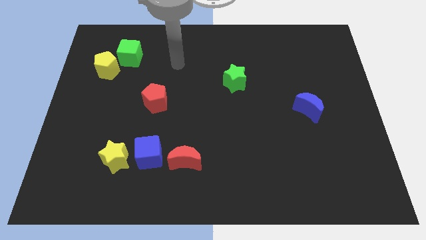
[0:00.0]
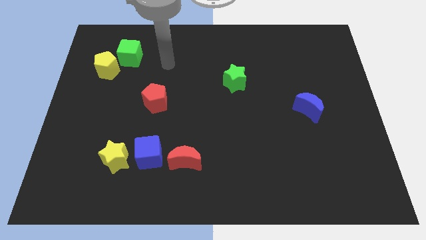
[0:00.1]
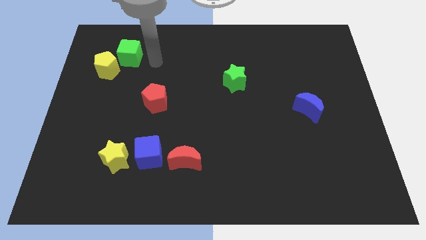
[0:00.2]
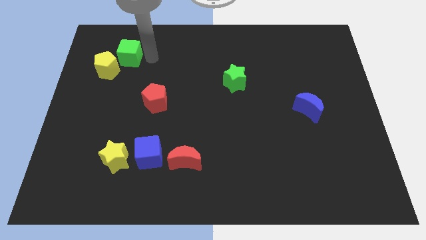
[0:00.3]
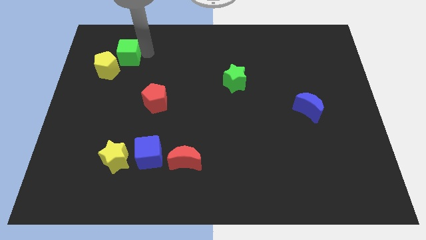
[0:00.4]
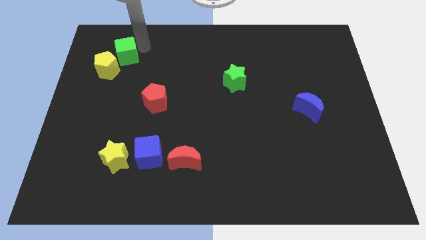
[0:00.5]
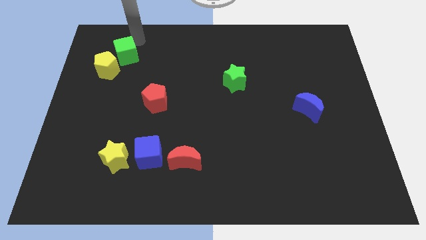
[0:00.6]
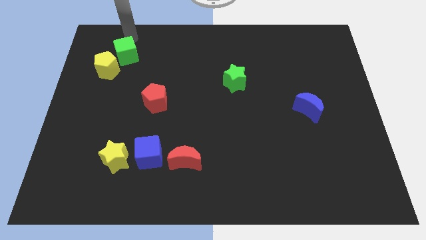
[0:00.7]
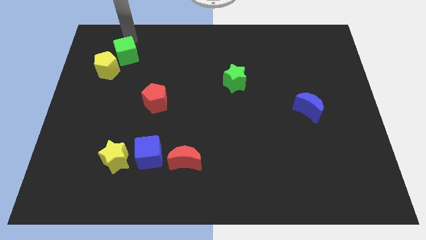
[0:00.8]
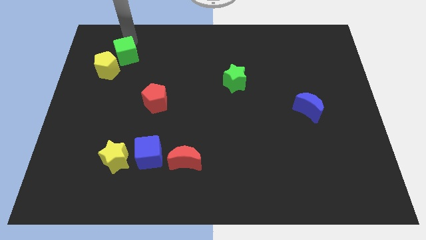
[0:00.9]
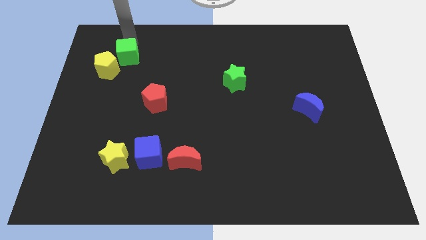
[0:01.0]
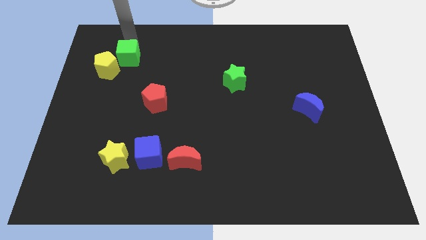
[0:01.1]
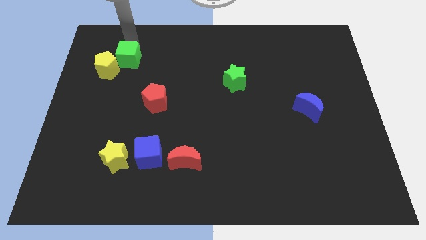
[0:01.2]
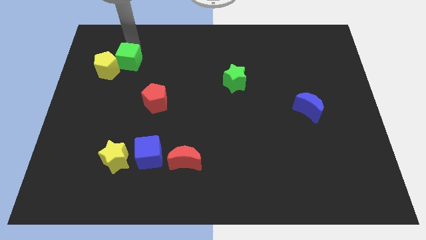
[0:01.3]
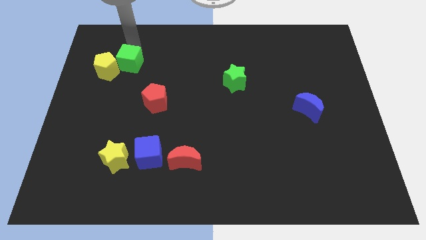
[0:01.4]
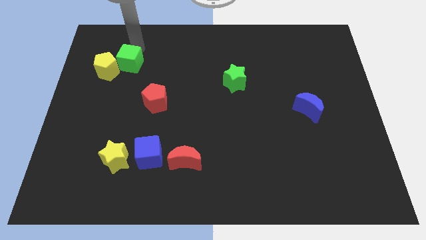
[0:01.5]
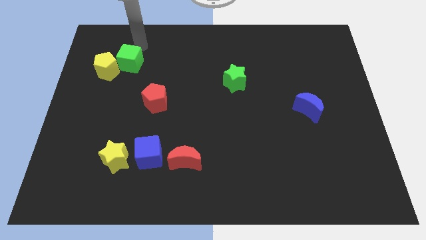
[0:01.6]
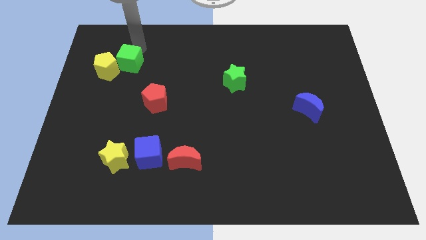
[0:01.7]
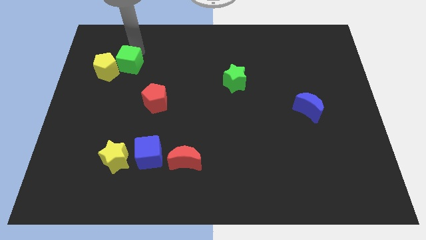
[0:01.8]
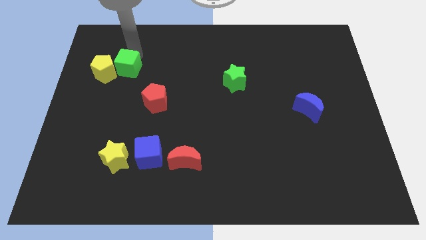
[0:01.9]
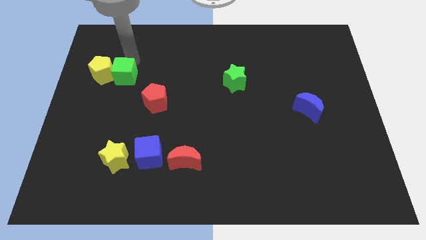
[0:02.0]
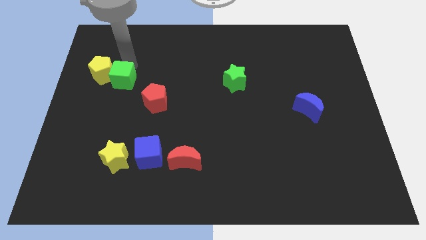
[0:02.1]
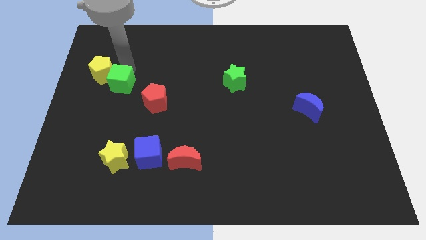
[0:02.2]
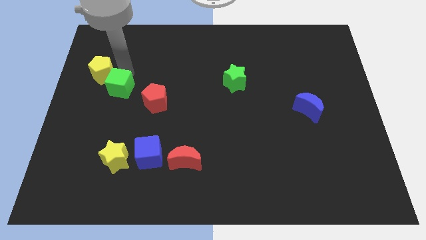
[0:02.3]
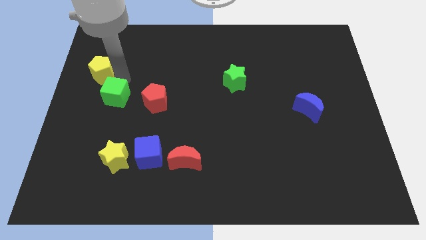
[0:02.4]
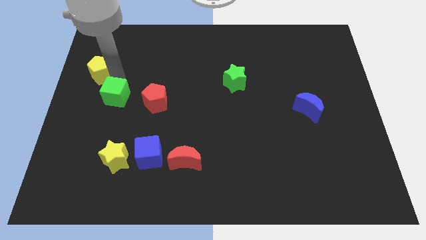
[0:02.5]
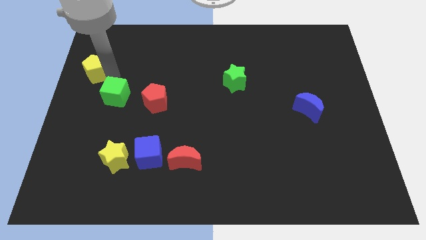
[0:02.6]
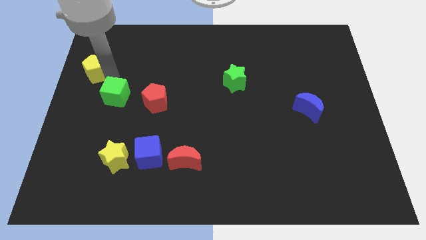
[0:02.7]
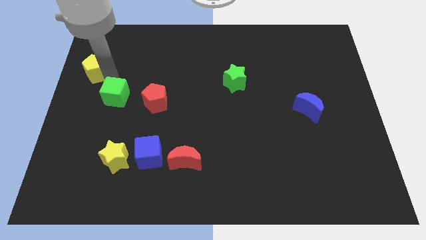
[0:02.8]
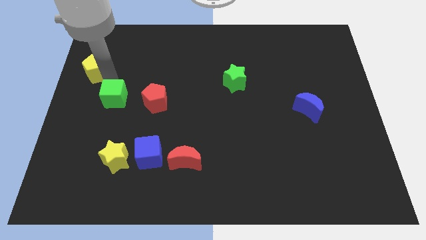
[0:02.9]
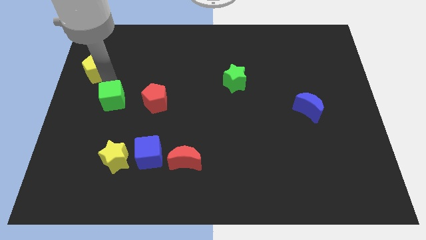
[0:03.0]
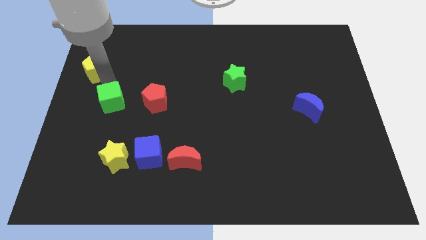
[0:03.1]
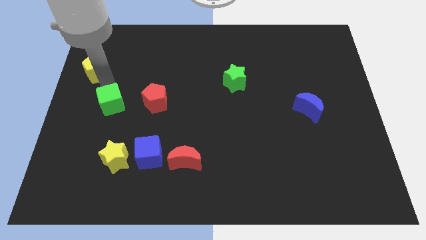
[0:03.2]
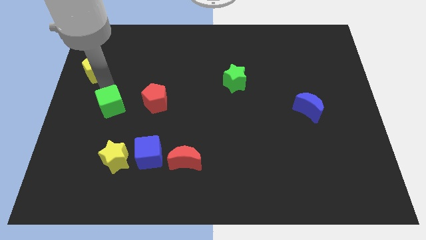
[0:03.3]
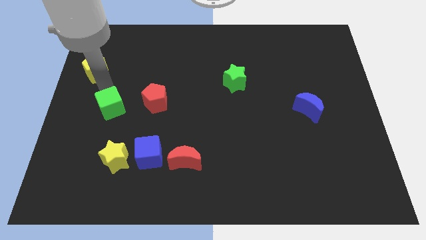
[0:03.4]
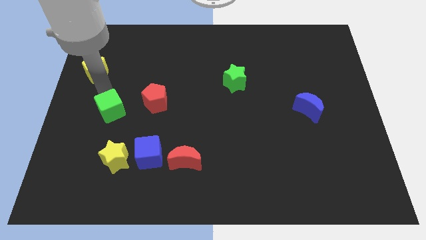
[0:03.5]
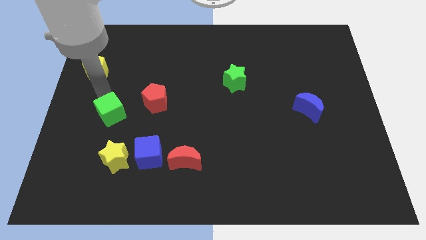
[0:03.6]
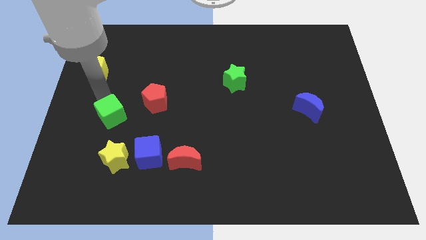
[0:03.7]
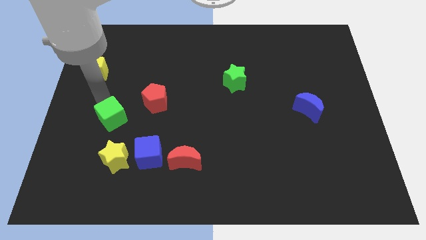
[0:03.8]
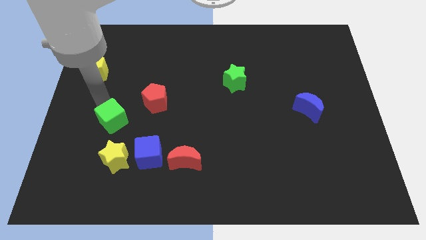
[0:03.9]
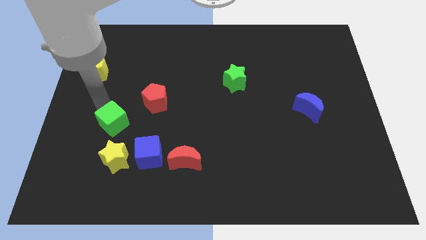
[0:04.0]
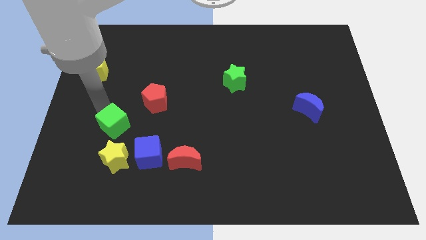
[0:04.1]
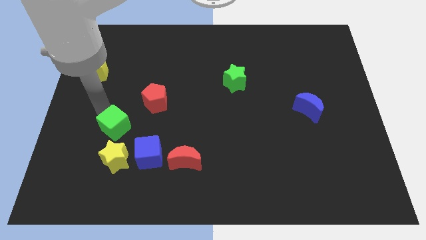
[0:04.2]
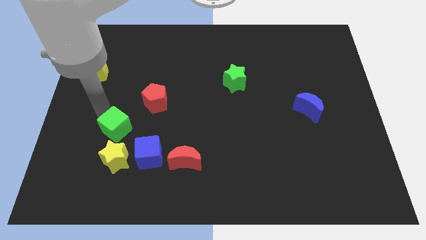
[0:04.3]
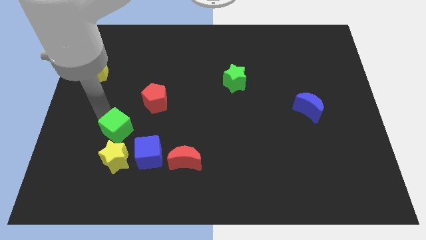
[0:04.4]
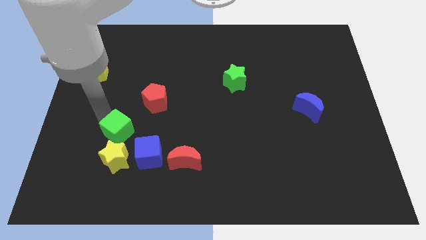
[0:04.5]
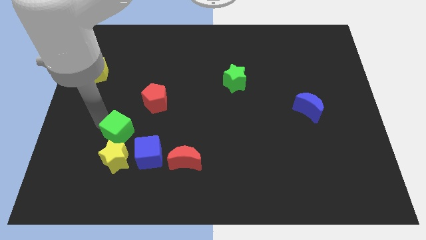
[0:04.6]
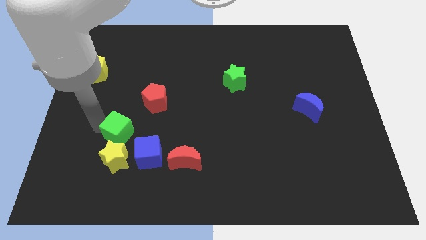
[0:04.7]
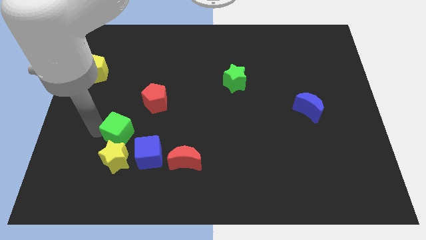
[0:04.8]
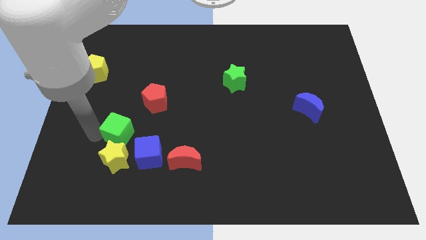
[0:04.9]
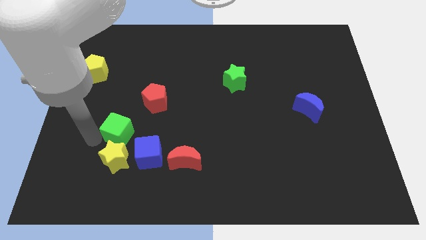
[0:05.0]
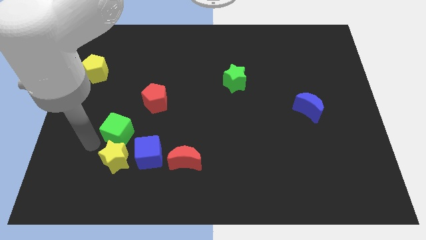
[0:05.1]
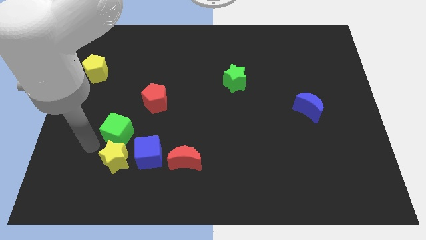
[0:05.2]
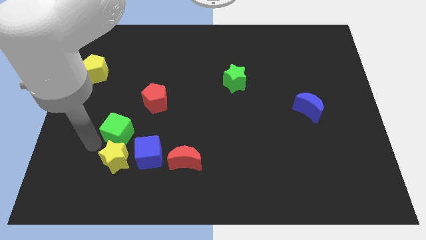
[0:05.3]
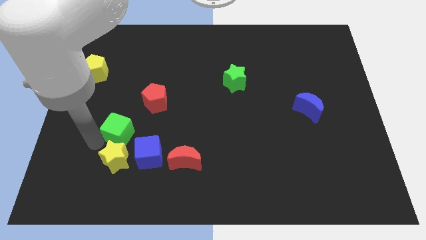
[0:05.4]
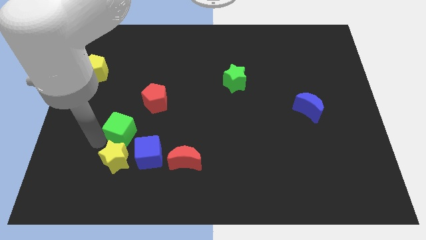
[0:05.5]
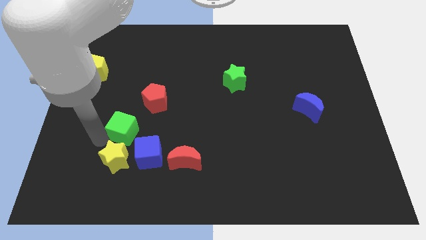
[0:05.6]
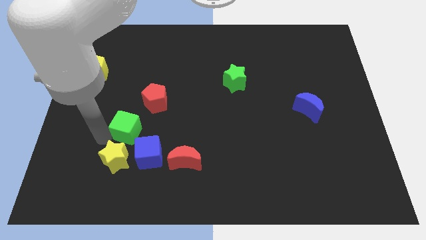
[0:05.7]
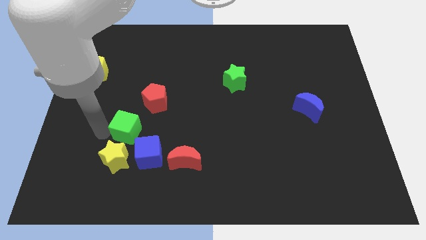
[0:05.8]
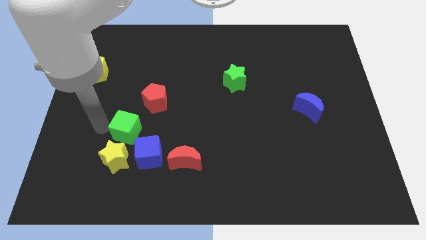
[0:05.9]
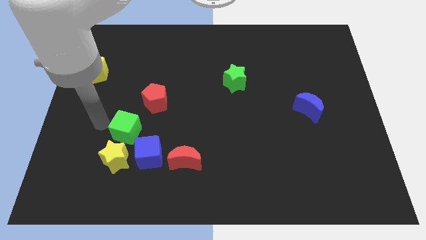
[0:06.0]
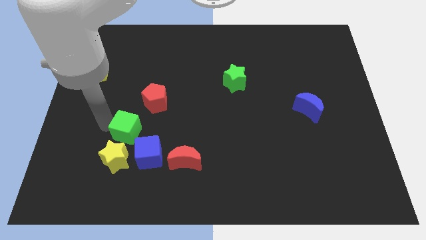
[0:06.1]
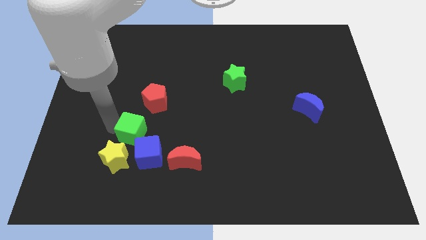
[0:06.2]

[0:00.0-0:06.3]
slide the green cube to the bottom side of the red pentagon
